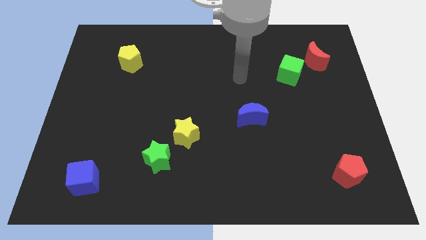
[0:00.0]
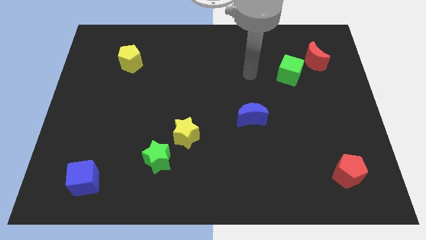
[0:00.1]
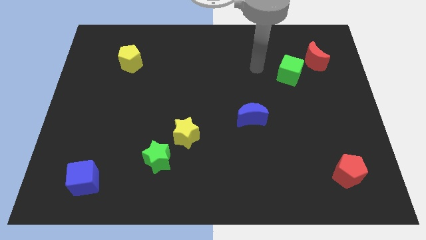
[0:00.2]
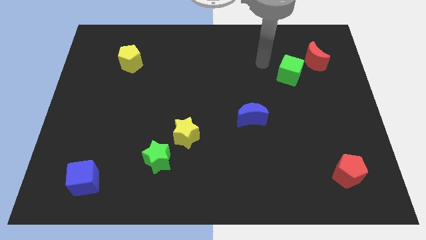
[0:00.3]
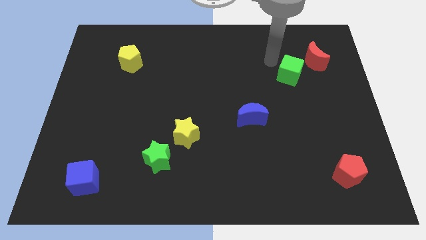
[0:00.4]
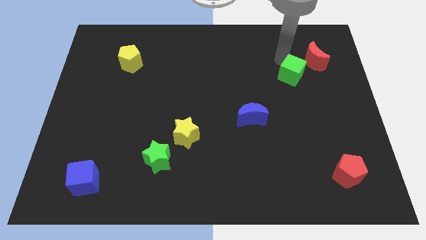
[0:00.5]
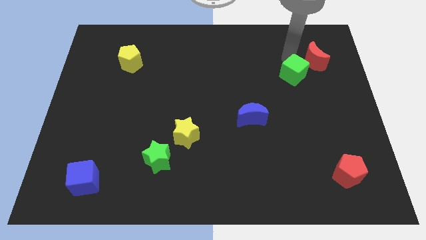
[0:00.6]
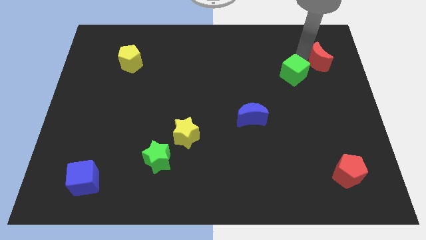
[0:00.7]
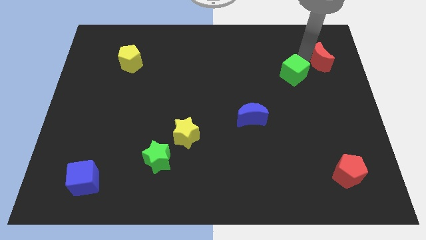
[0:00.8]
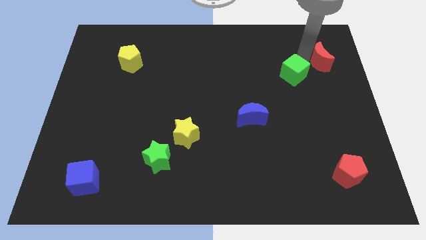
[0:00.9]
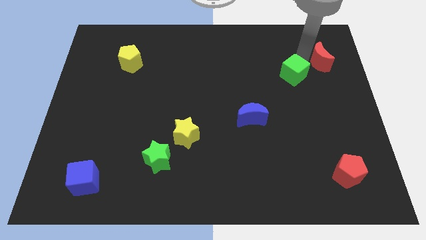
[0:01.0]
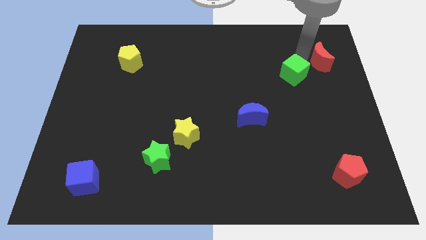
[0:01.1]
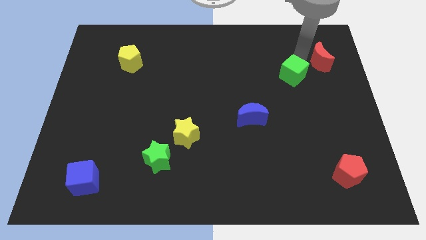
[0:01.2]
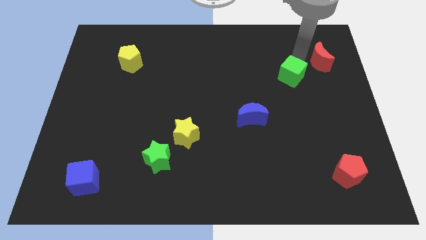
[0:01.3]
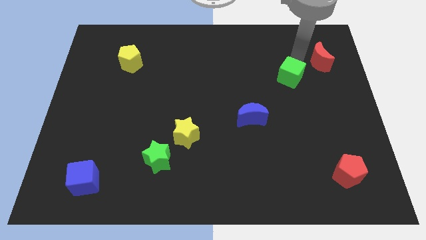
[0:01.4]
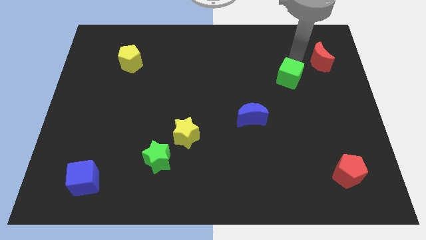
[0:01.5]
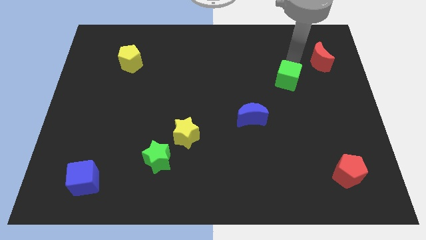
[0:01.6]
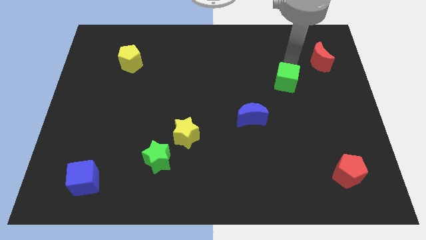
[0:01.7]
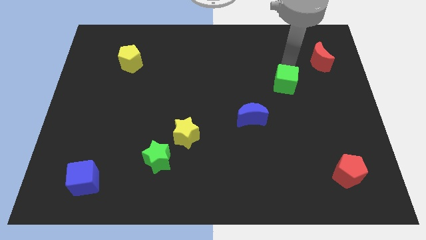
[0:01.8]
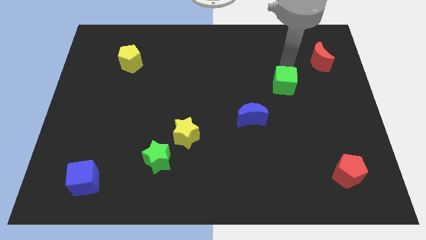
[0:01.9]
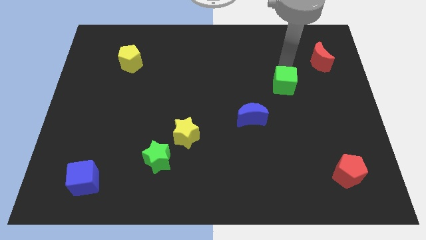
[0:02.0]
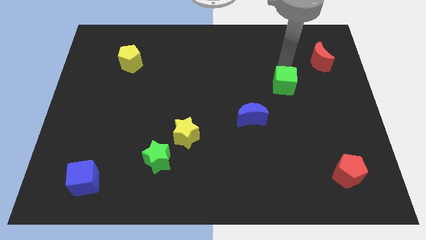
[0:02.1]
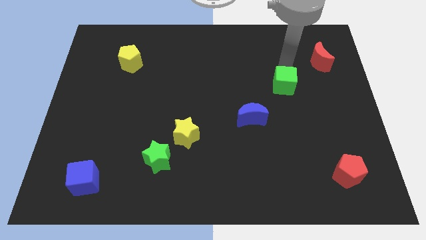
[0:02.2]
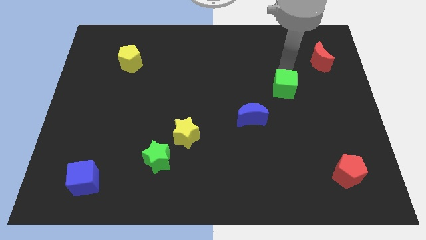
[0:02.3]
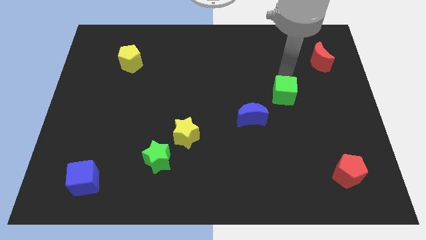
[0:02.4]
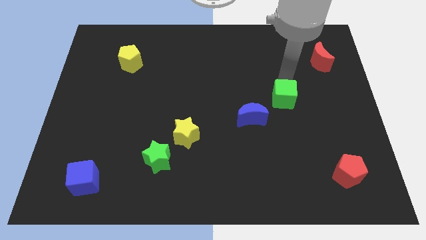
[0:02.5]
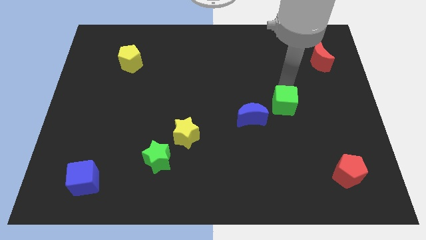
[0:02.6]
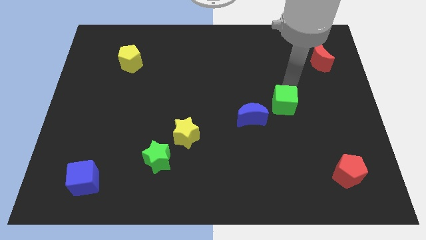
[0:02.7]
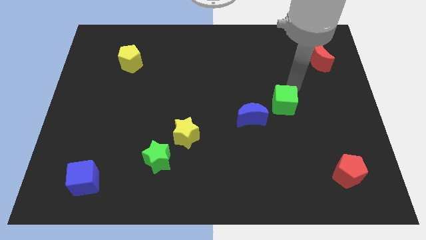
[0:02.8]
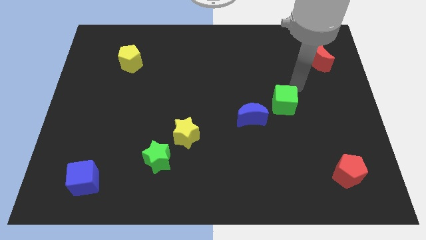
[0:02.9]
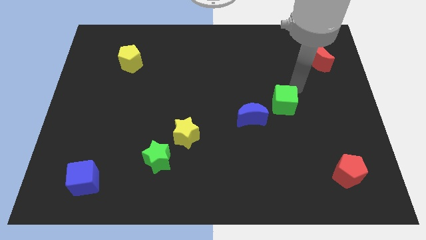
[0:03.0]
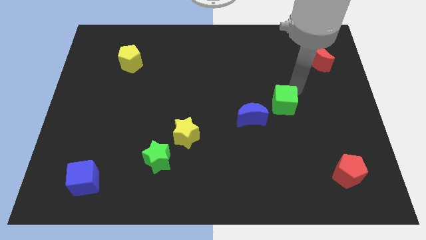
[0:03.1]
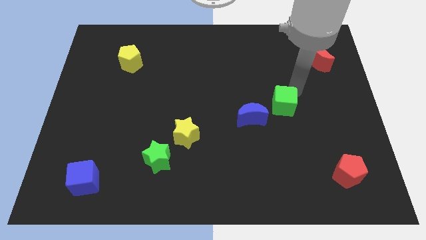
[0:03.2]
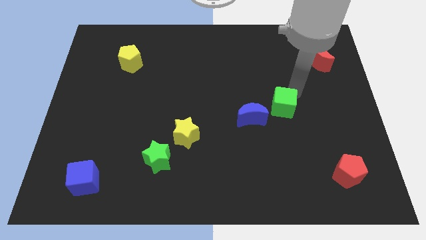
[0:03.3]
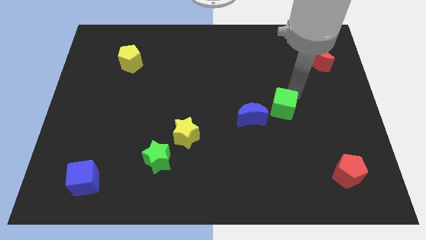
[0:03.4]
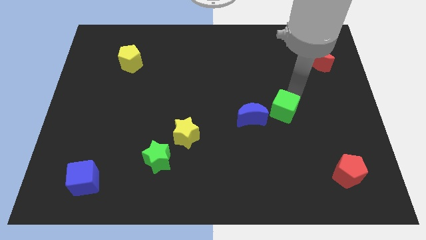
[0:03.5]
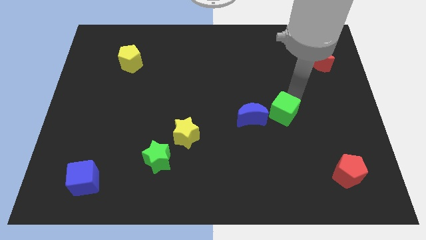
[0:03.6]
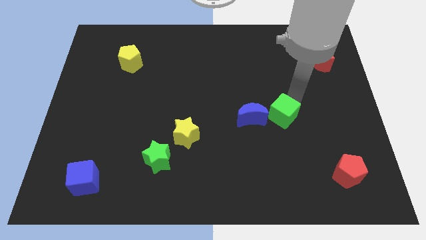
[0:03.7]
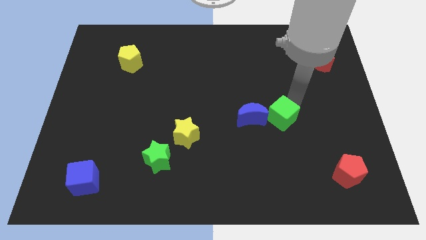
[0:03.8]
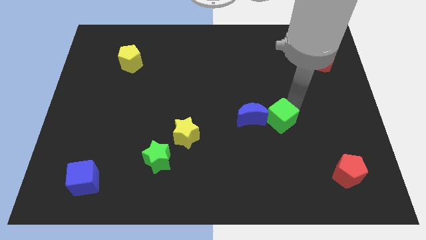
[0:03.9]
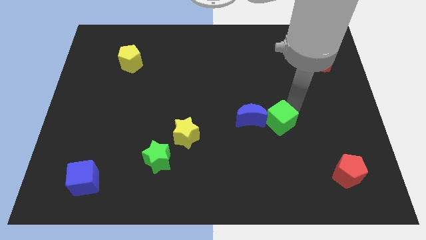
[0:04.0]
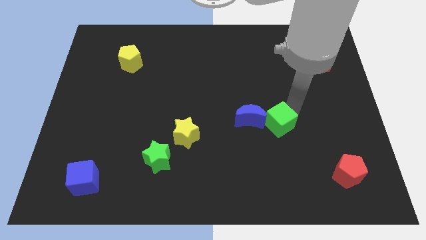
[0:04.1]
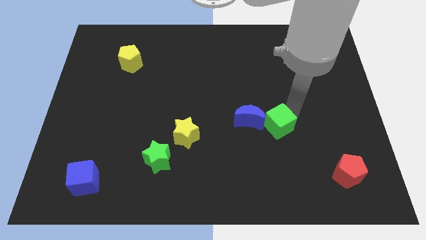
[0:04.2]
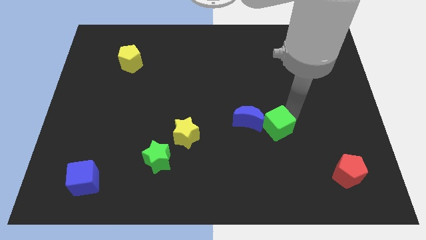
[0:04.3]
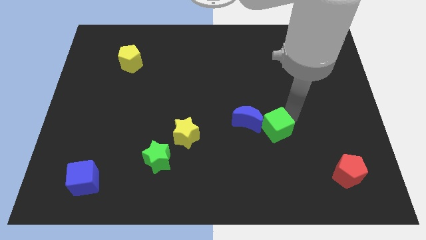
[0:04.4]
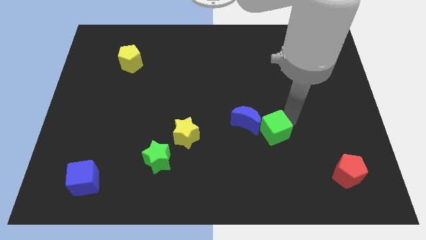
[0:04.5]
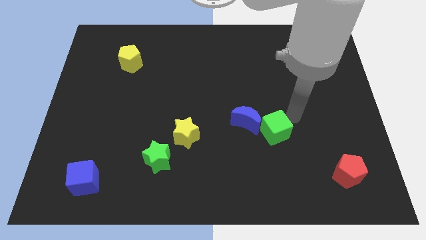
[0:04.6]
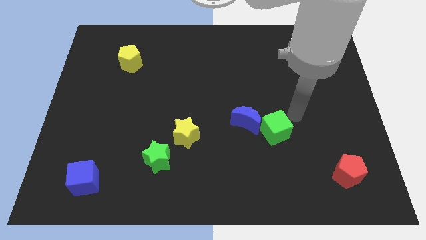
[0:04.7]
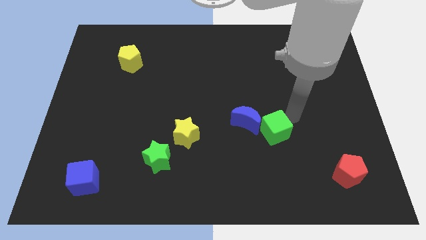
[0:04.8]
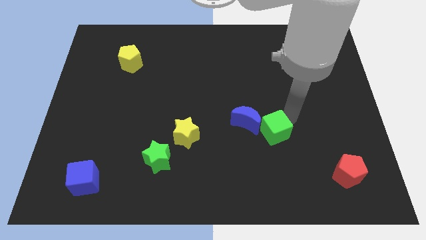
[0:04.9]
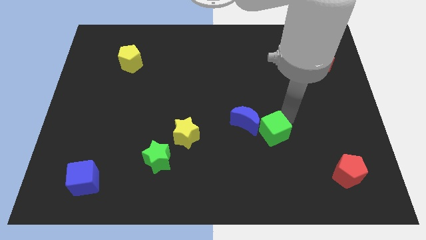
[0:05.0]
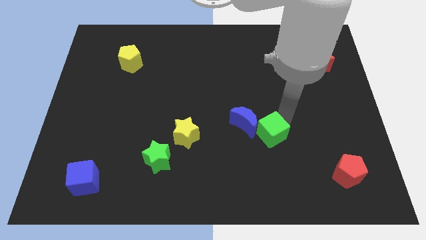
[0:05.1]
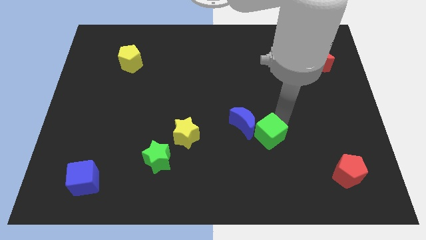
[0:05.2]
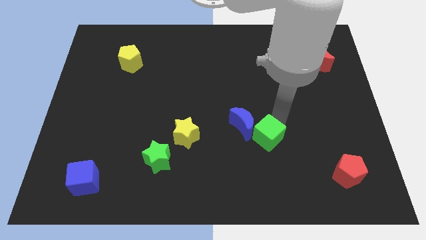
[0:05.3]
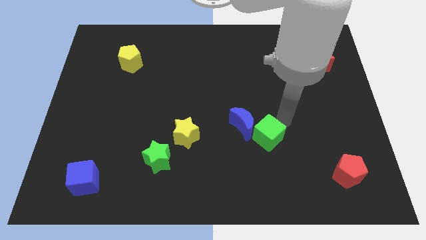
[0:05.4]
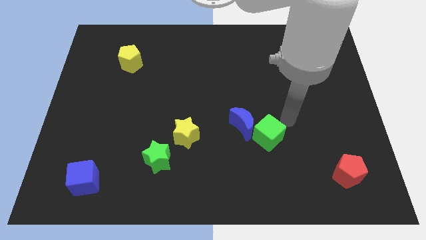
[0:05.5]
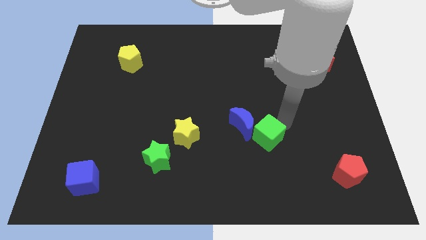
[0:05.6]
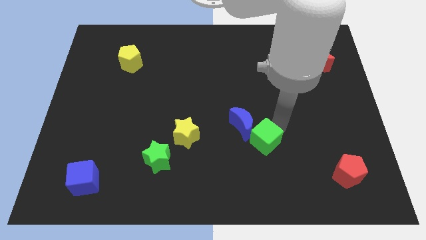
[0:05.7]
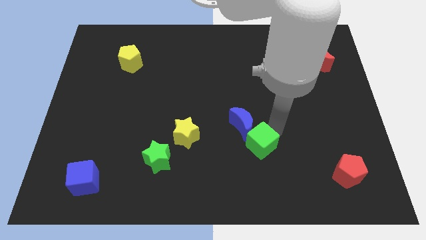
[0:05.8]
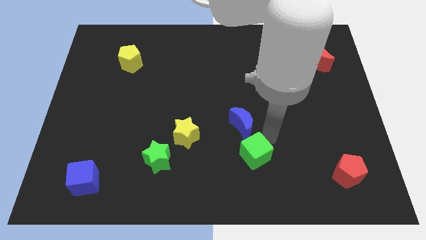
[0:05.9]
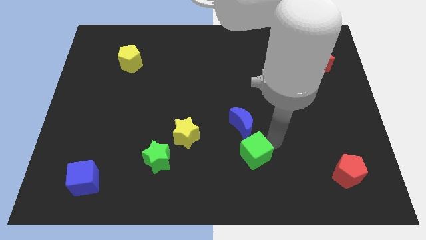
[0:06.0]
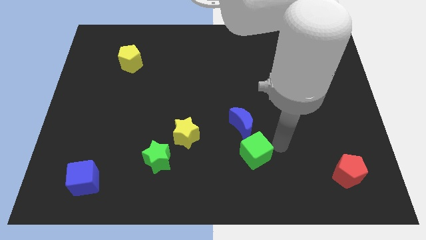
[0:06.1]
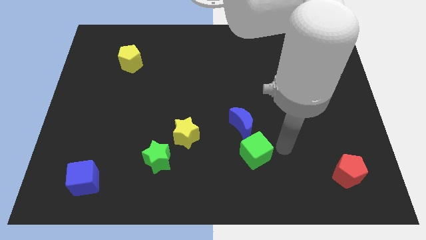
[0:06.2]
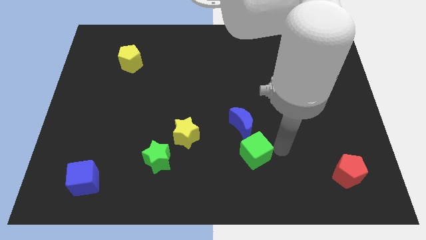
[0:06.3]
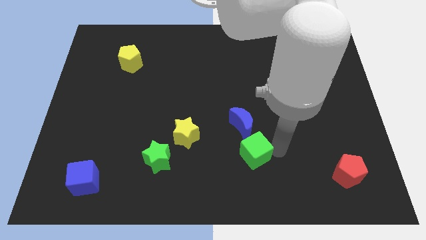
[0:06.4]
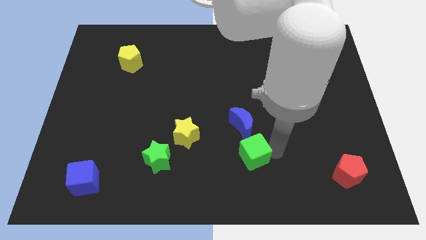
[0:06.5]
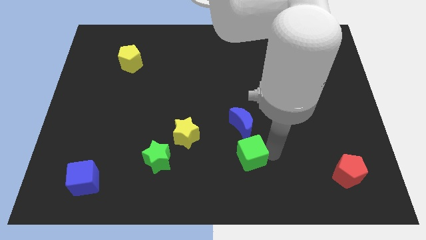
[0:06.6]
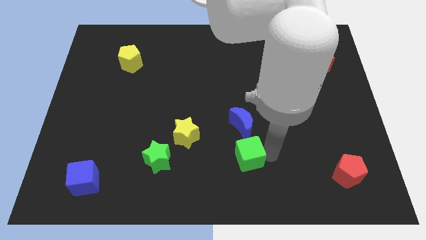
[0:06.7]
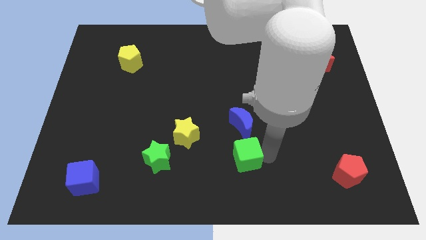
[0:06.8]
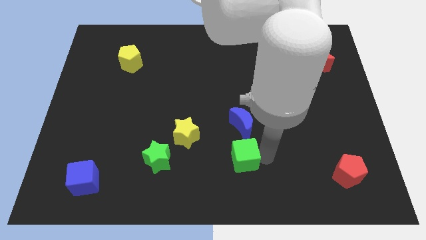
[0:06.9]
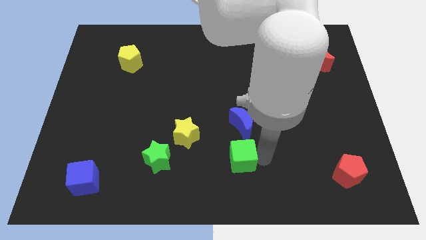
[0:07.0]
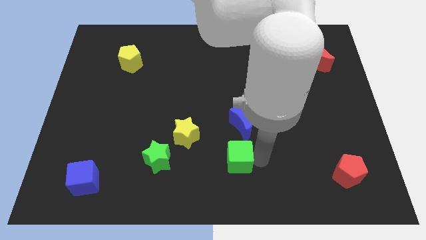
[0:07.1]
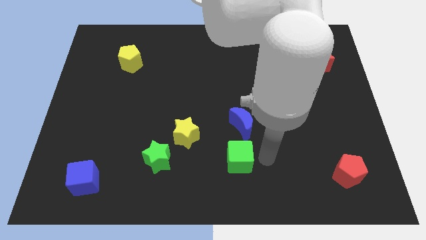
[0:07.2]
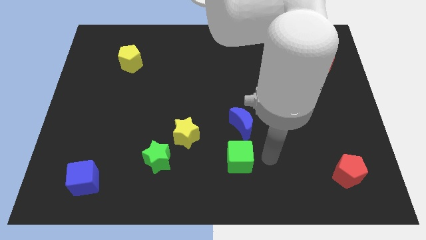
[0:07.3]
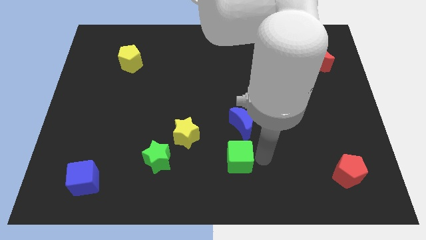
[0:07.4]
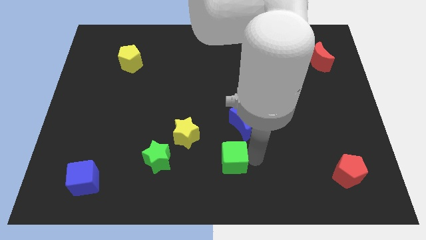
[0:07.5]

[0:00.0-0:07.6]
slide the green cube just right of the green star
